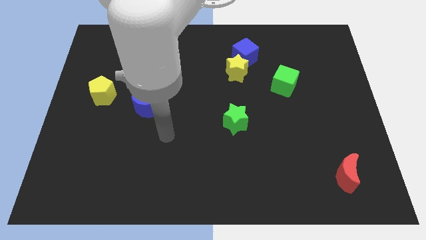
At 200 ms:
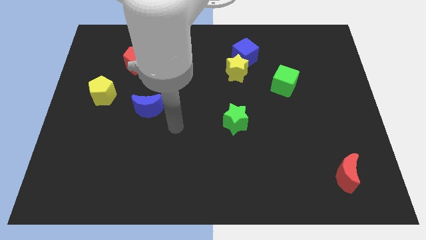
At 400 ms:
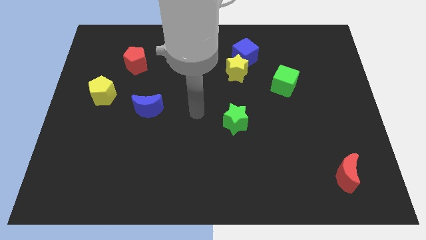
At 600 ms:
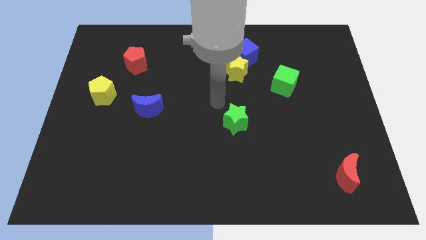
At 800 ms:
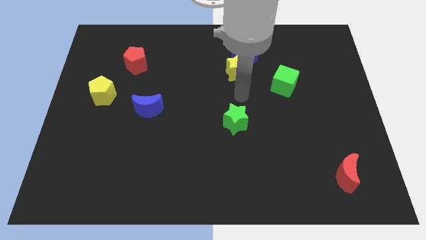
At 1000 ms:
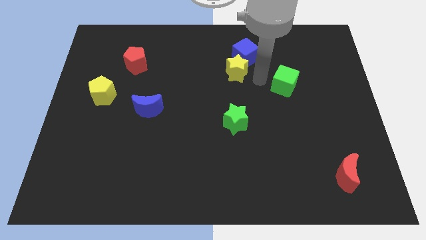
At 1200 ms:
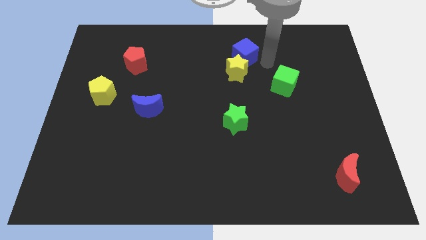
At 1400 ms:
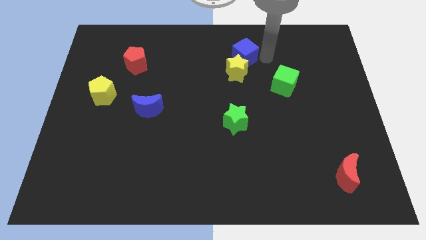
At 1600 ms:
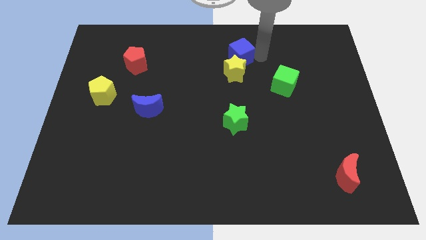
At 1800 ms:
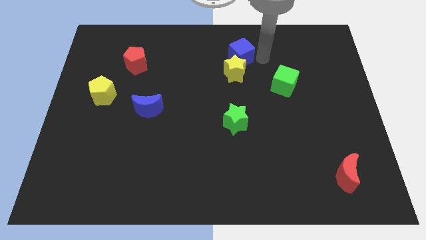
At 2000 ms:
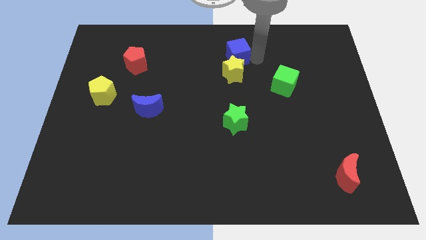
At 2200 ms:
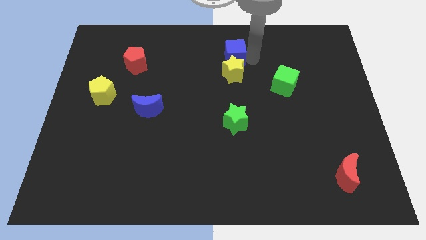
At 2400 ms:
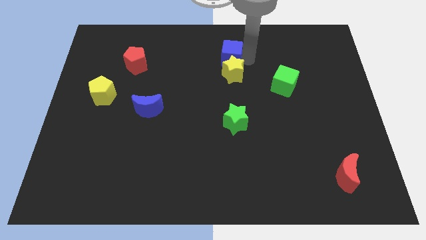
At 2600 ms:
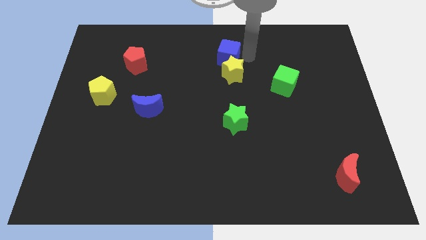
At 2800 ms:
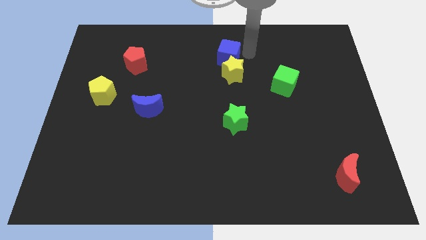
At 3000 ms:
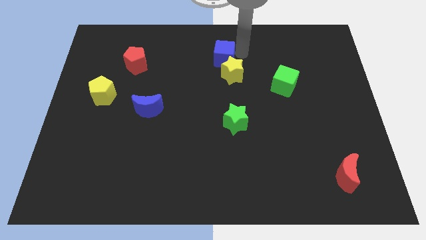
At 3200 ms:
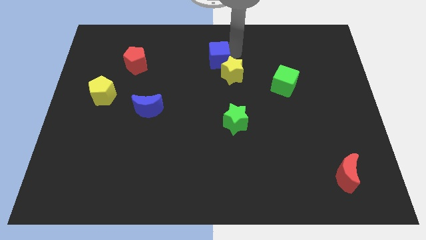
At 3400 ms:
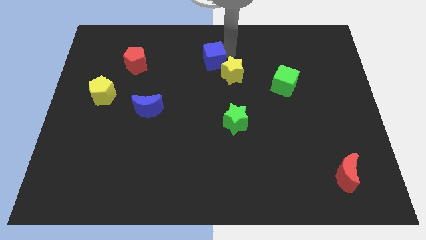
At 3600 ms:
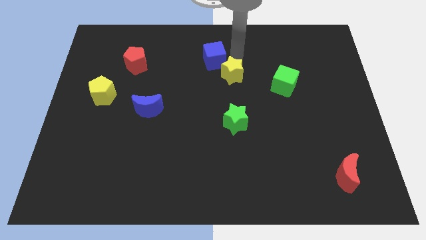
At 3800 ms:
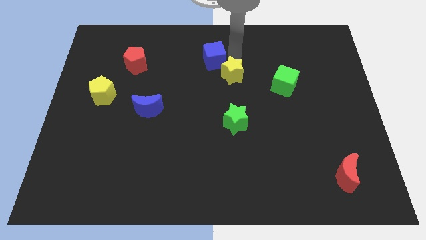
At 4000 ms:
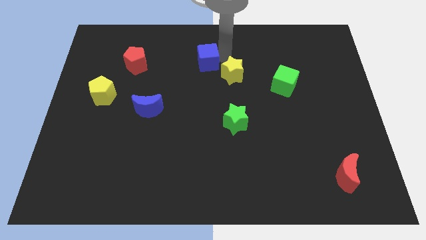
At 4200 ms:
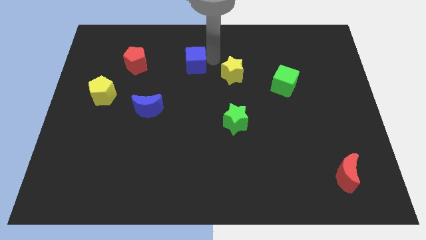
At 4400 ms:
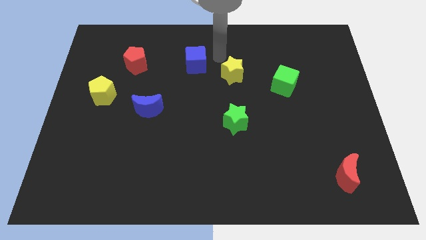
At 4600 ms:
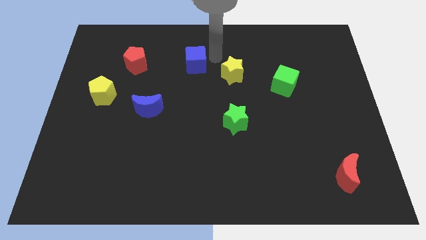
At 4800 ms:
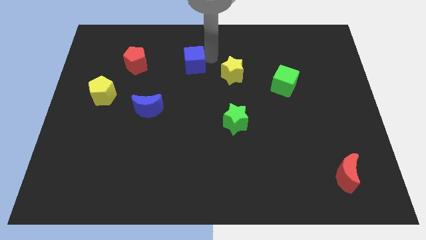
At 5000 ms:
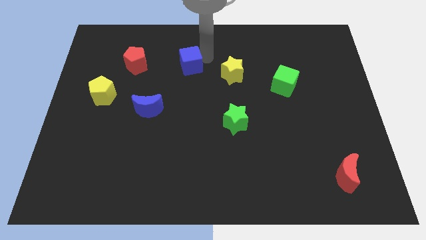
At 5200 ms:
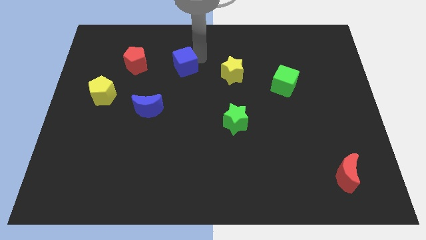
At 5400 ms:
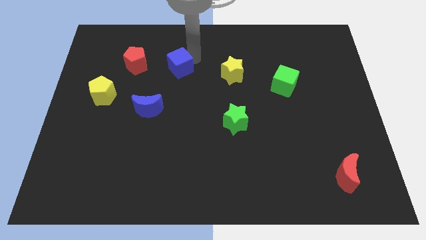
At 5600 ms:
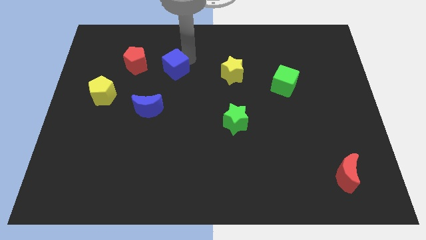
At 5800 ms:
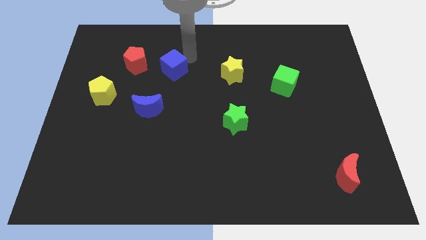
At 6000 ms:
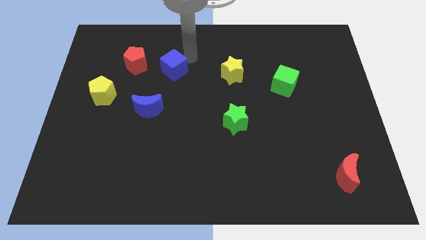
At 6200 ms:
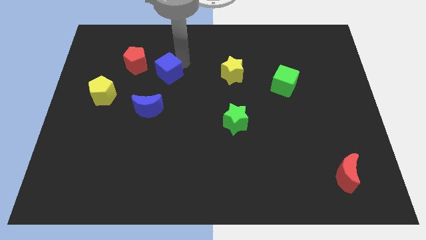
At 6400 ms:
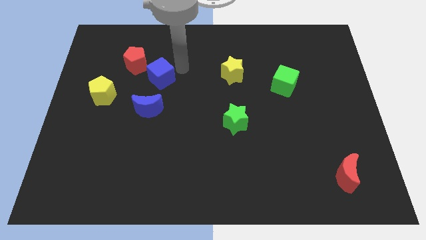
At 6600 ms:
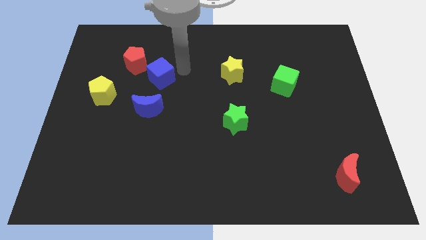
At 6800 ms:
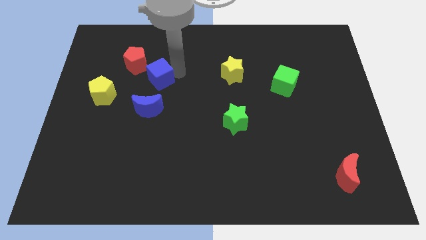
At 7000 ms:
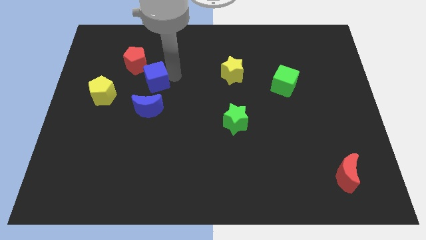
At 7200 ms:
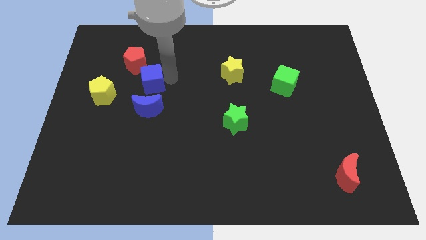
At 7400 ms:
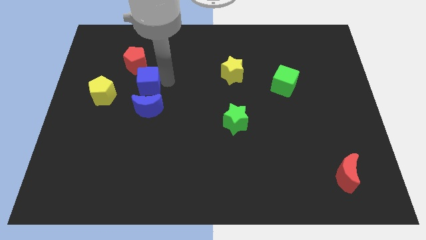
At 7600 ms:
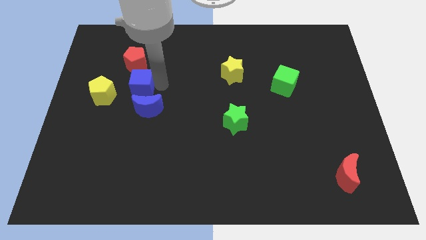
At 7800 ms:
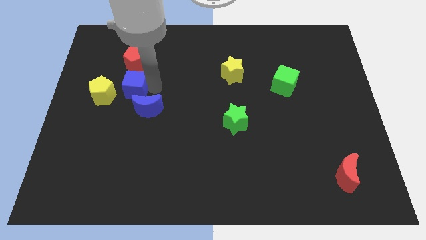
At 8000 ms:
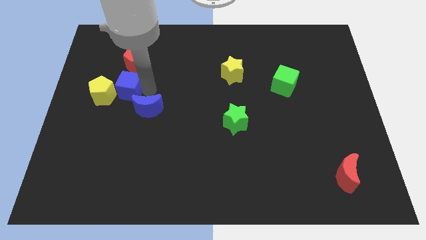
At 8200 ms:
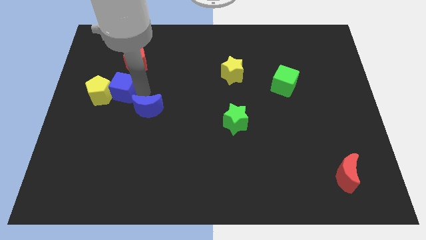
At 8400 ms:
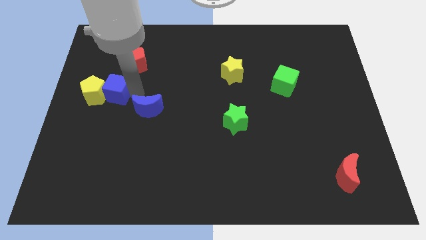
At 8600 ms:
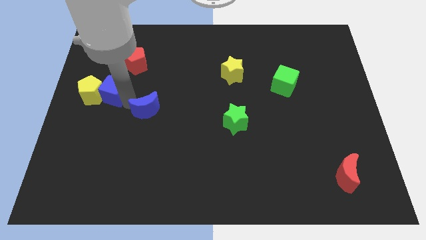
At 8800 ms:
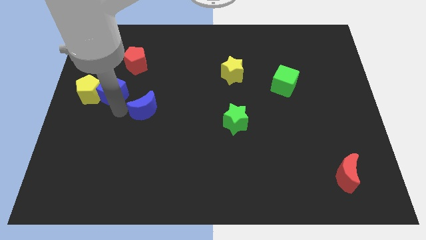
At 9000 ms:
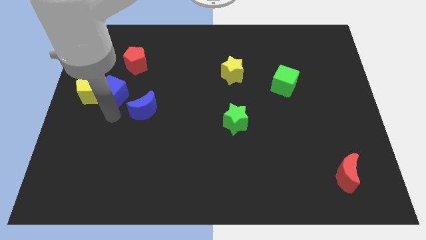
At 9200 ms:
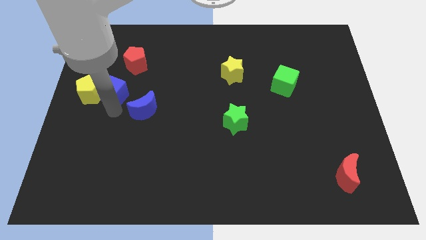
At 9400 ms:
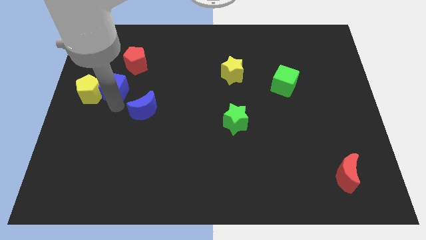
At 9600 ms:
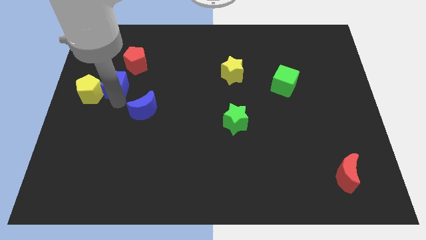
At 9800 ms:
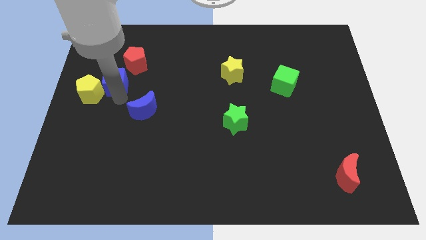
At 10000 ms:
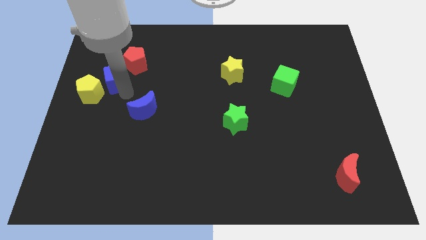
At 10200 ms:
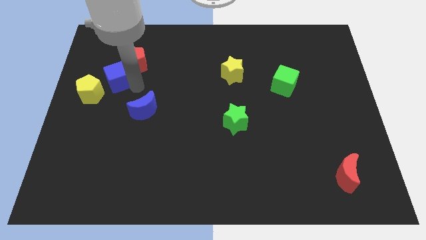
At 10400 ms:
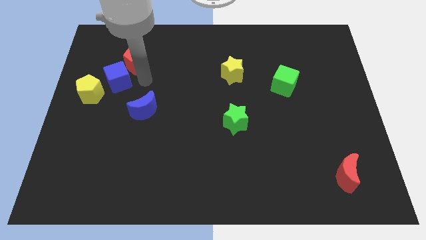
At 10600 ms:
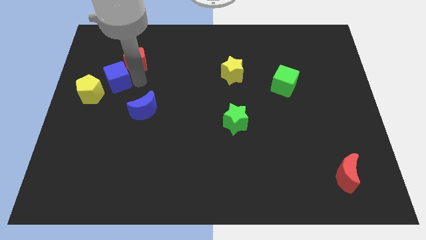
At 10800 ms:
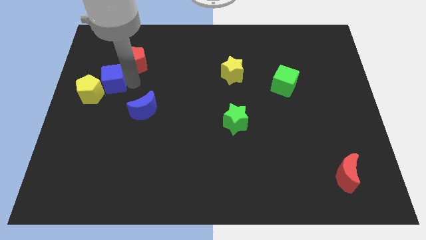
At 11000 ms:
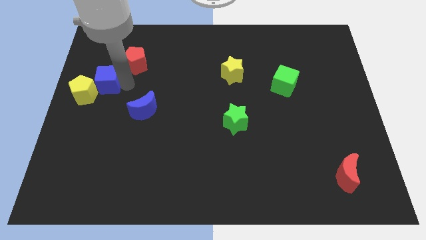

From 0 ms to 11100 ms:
put the blue cube to the left side of the board

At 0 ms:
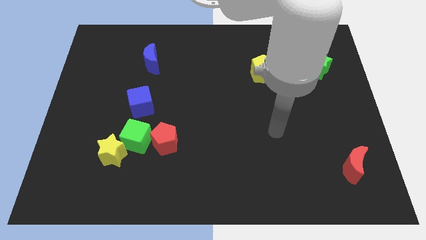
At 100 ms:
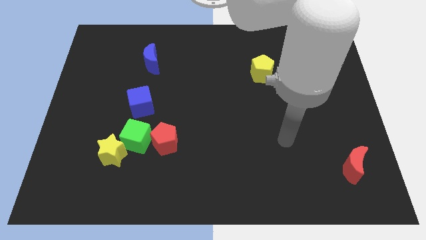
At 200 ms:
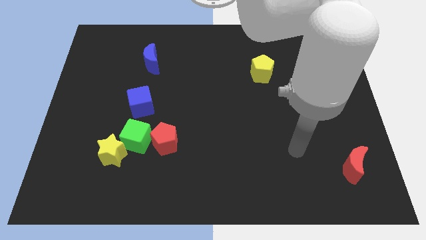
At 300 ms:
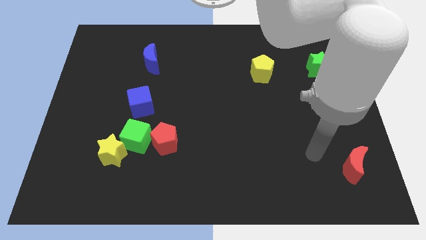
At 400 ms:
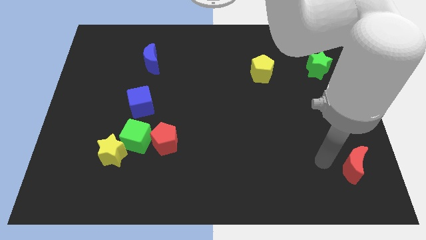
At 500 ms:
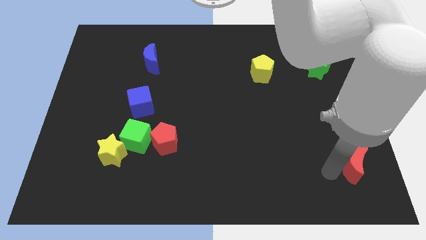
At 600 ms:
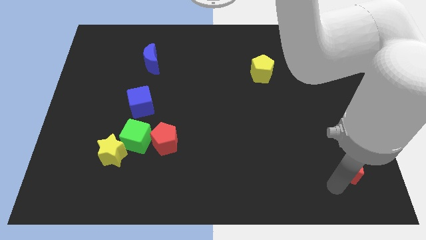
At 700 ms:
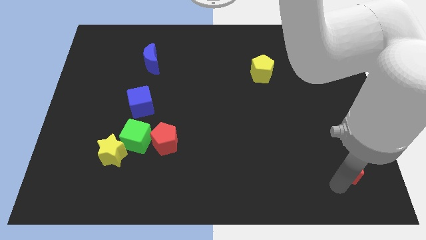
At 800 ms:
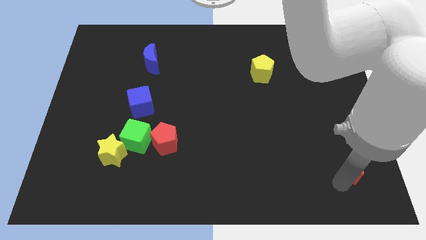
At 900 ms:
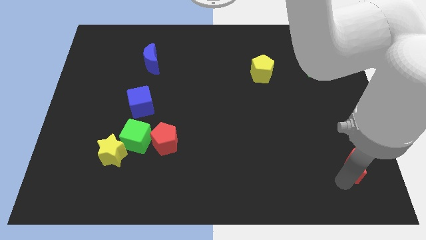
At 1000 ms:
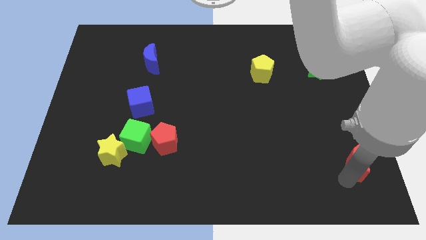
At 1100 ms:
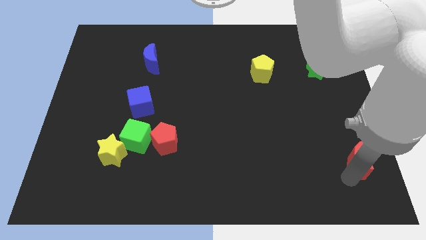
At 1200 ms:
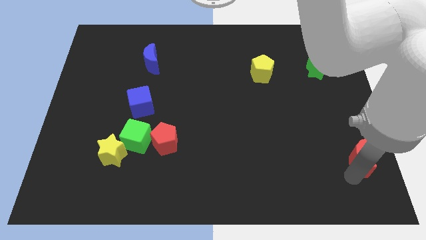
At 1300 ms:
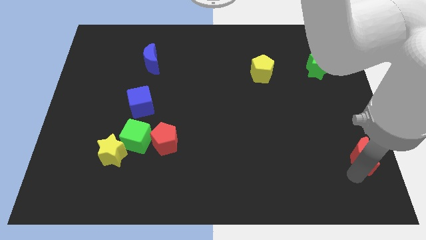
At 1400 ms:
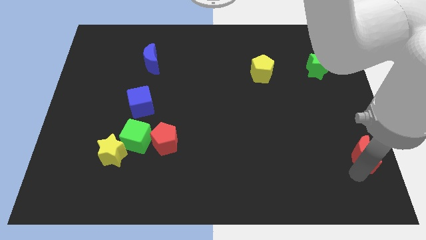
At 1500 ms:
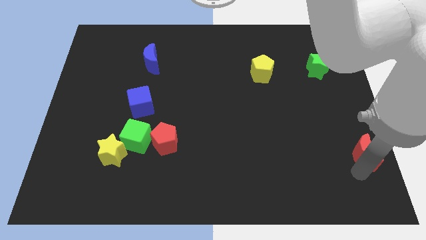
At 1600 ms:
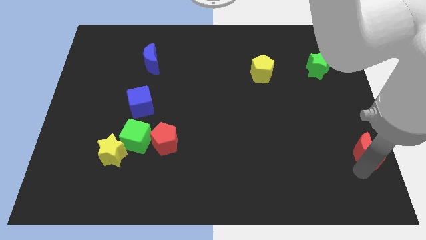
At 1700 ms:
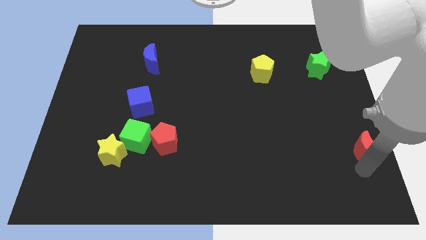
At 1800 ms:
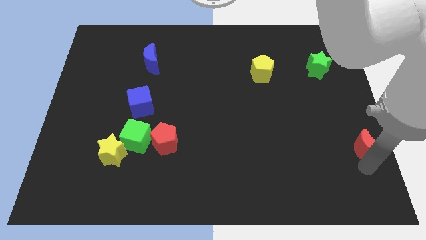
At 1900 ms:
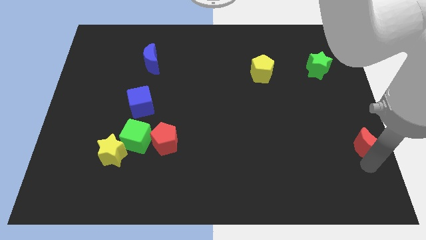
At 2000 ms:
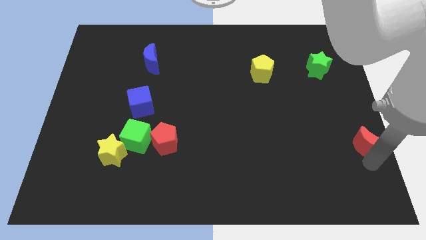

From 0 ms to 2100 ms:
slide the red moon to the right side of the board
